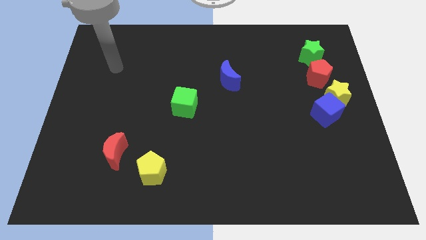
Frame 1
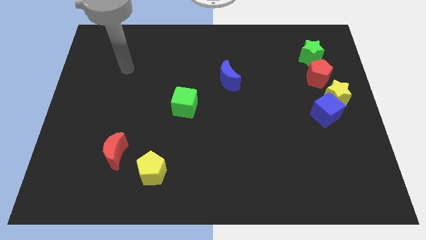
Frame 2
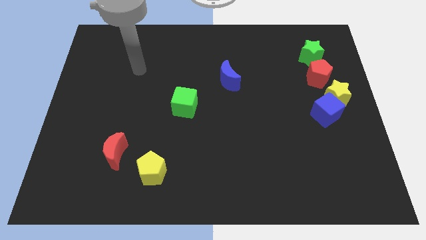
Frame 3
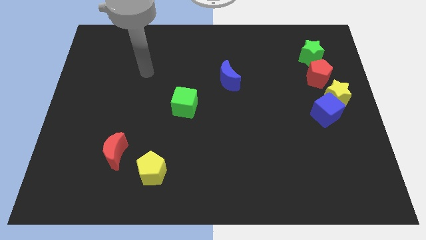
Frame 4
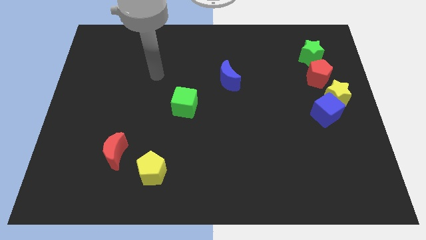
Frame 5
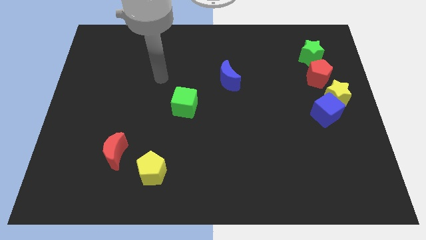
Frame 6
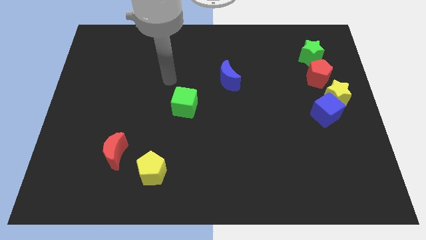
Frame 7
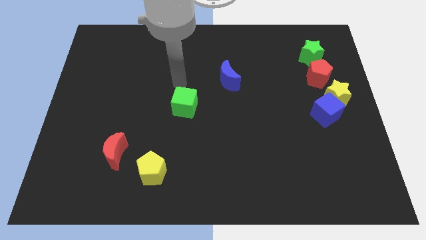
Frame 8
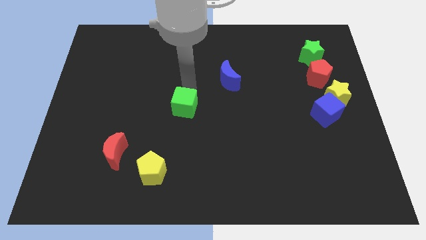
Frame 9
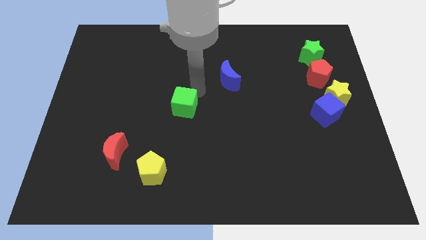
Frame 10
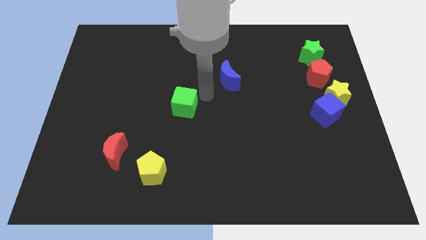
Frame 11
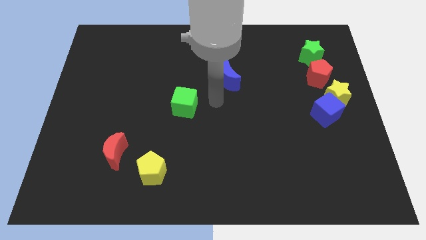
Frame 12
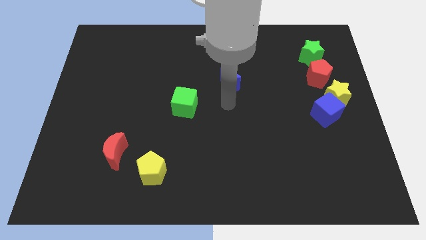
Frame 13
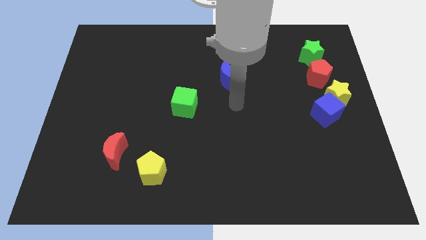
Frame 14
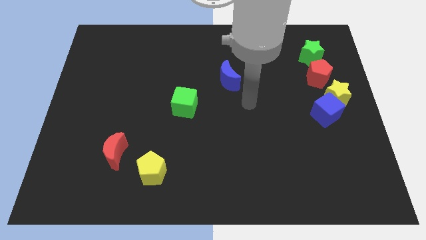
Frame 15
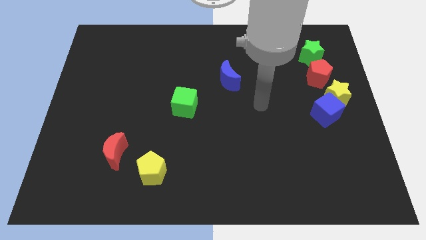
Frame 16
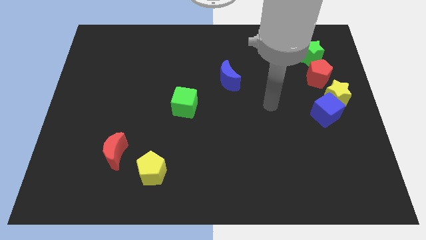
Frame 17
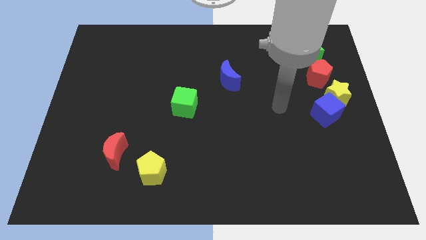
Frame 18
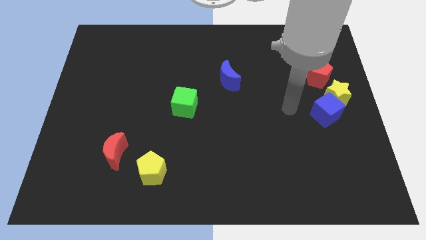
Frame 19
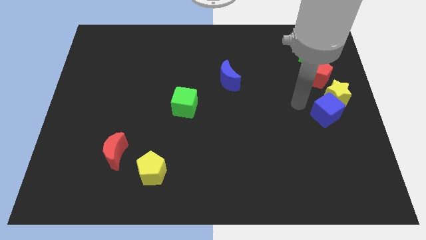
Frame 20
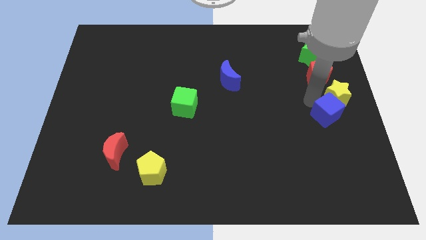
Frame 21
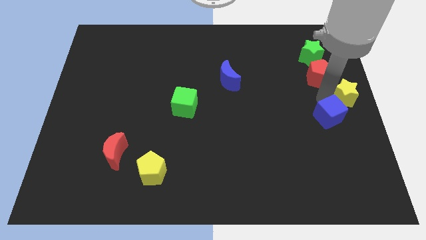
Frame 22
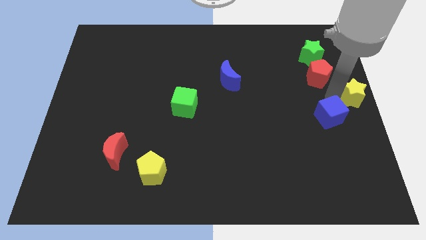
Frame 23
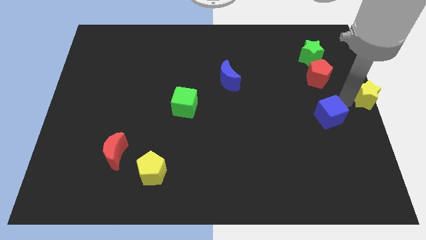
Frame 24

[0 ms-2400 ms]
move the blue cube away from the yellow star

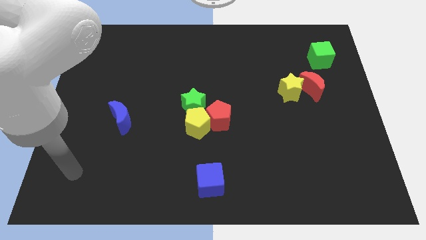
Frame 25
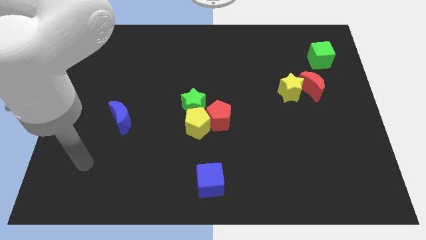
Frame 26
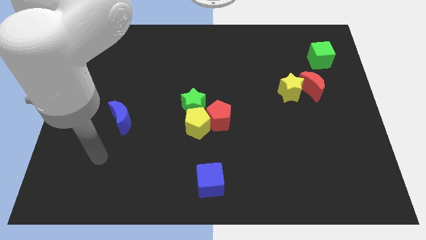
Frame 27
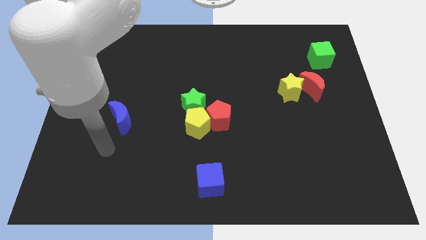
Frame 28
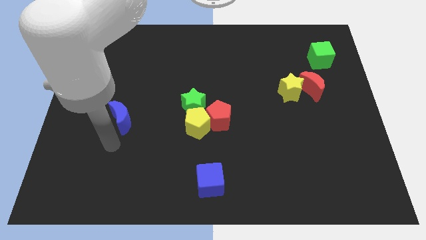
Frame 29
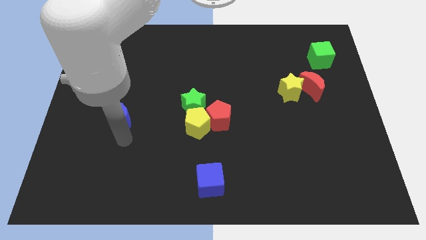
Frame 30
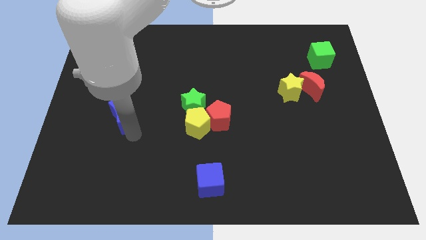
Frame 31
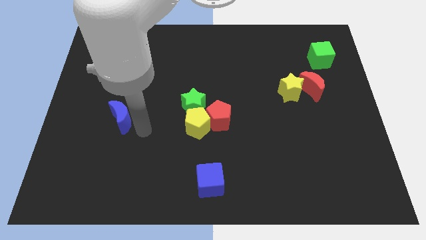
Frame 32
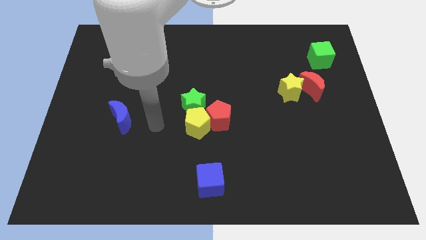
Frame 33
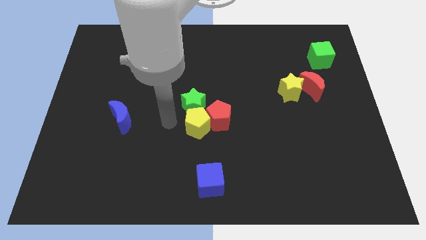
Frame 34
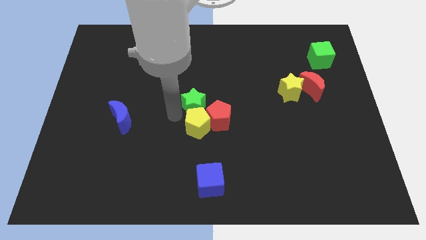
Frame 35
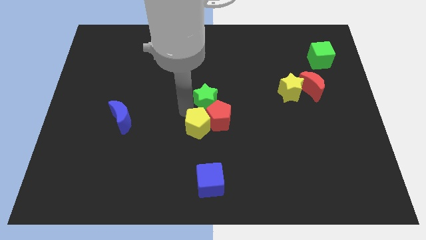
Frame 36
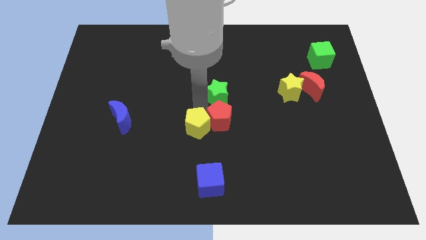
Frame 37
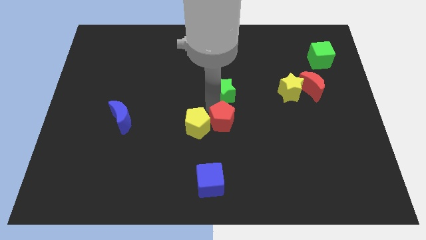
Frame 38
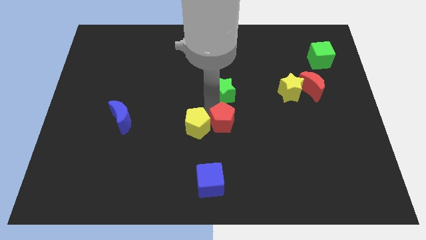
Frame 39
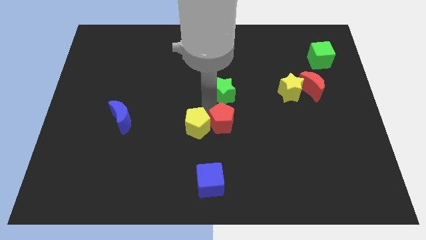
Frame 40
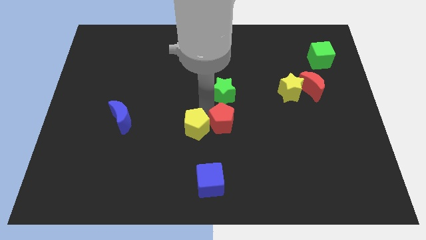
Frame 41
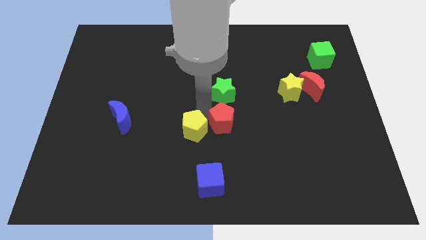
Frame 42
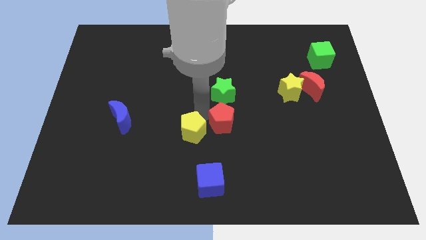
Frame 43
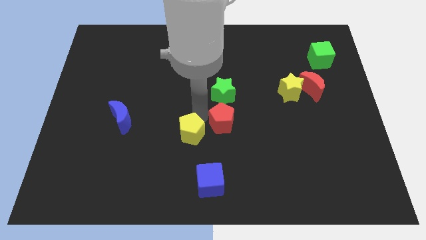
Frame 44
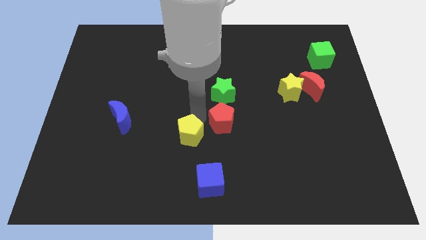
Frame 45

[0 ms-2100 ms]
move the yellow pentagon away from the red pentagon and green star

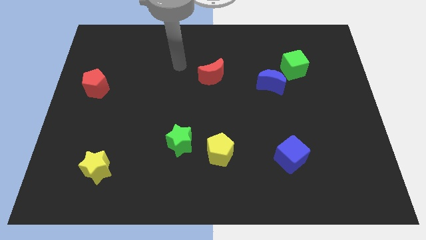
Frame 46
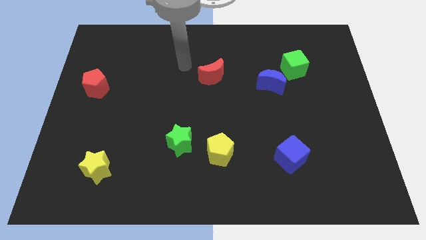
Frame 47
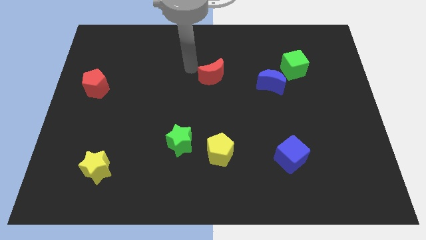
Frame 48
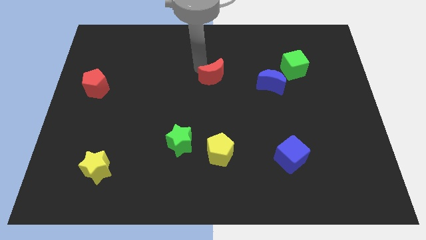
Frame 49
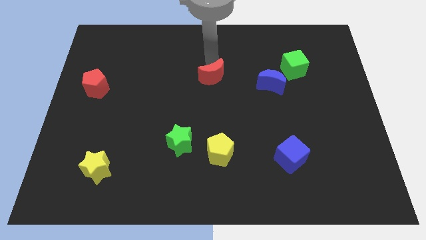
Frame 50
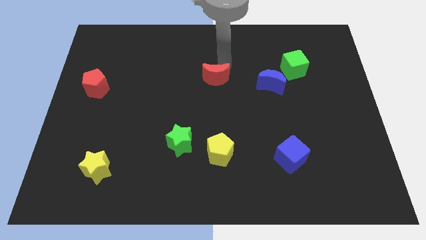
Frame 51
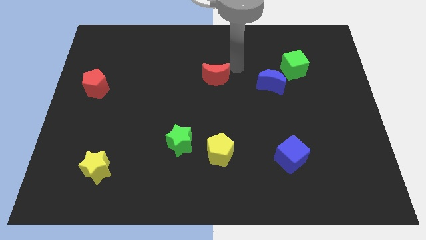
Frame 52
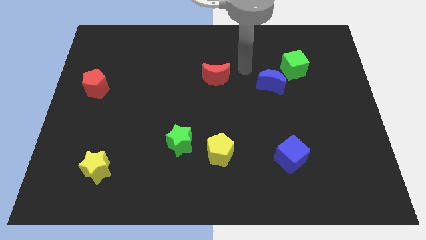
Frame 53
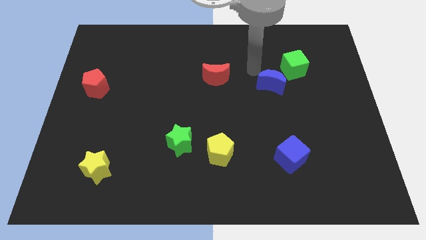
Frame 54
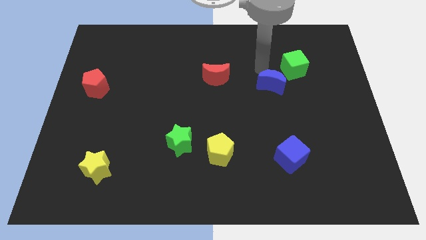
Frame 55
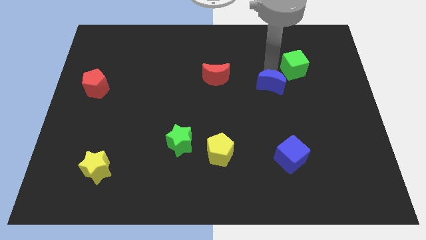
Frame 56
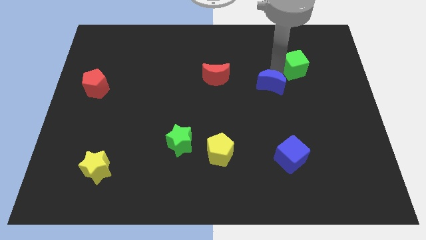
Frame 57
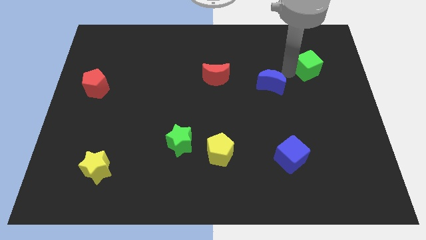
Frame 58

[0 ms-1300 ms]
separate the blue moon from the green cube

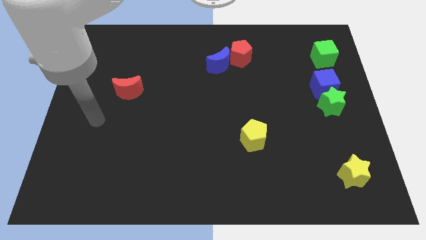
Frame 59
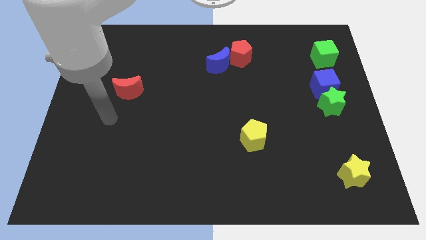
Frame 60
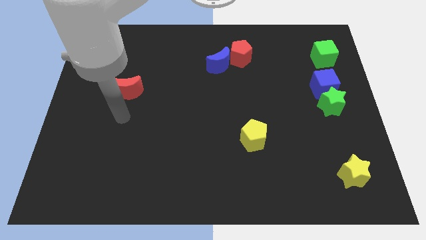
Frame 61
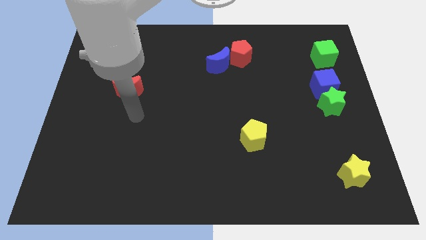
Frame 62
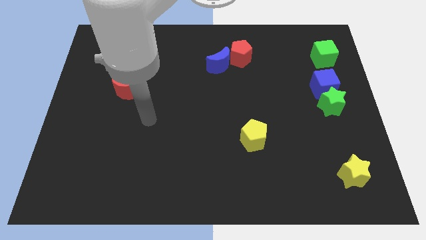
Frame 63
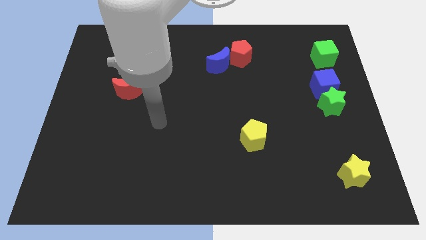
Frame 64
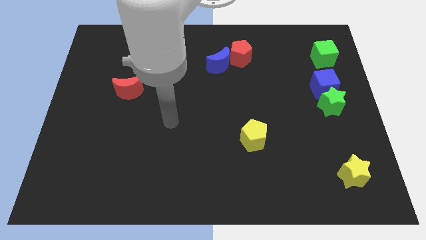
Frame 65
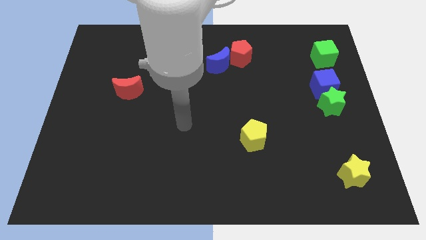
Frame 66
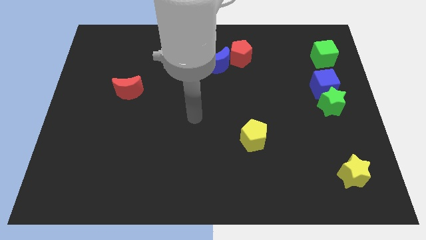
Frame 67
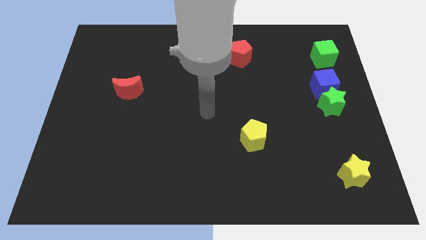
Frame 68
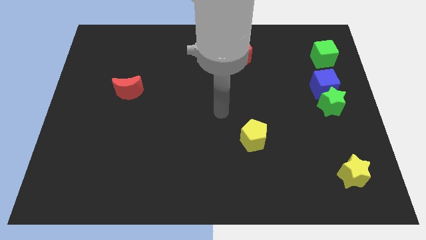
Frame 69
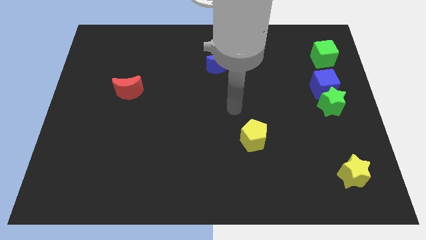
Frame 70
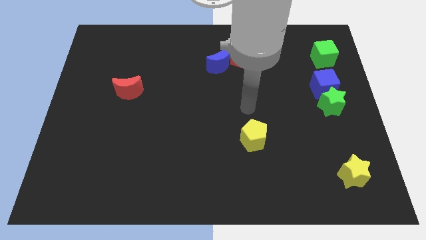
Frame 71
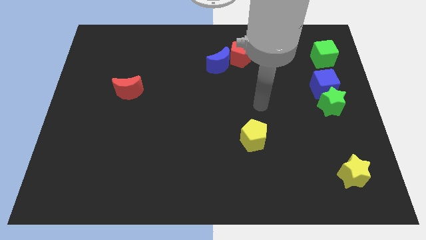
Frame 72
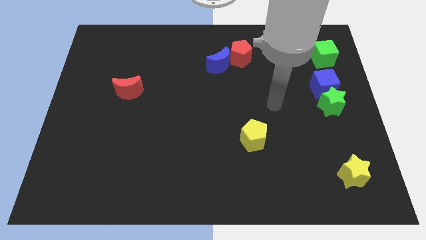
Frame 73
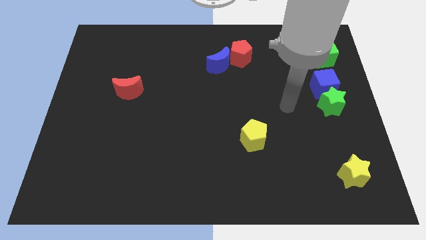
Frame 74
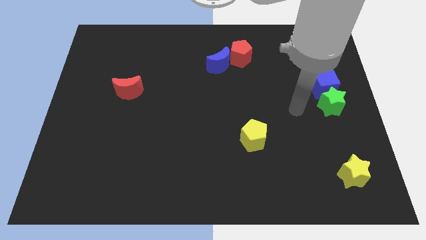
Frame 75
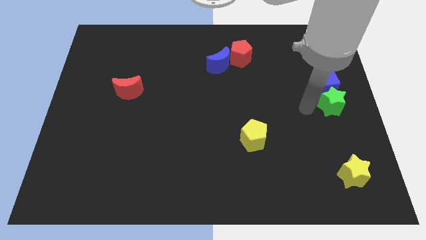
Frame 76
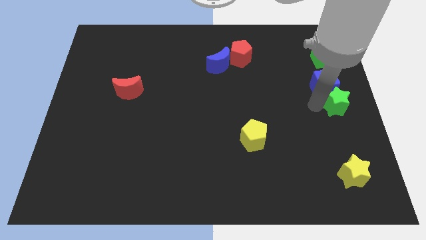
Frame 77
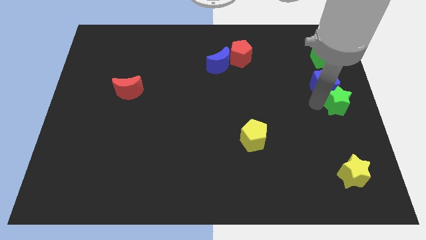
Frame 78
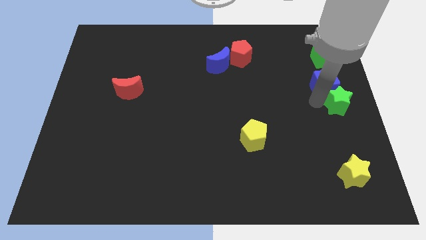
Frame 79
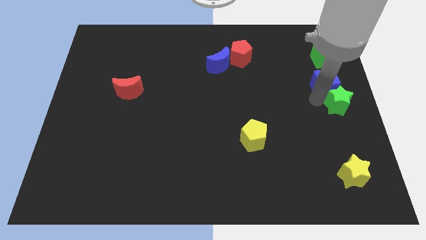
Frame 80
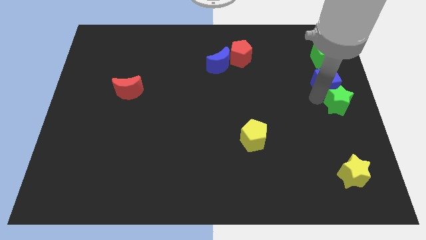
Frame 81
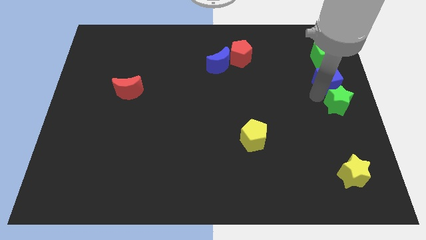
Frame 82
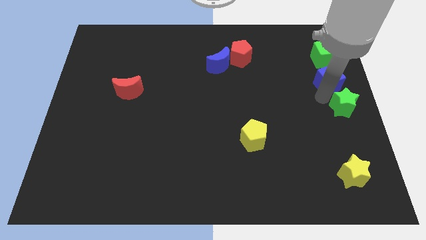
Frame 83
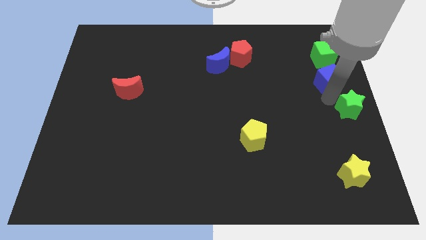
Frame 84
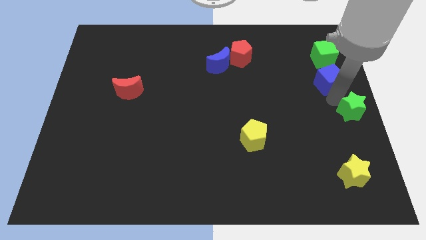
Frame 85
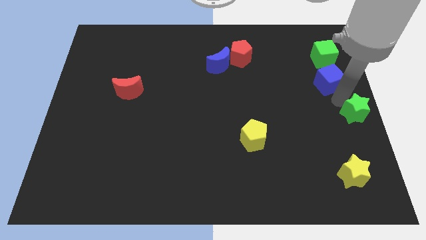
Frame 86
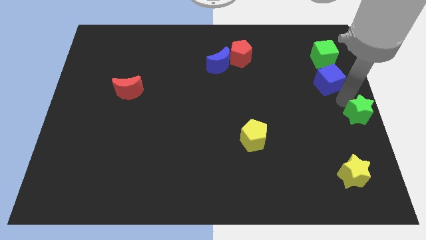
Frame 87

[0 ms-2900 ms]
move the blue cube away from the green star

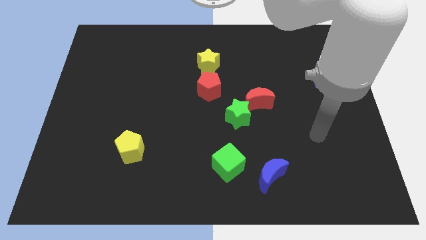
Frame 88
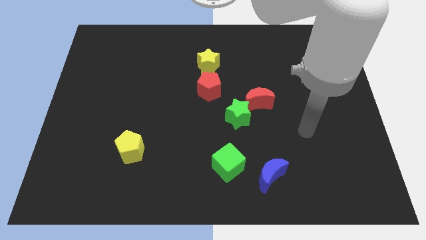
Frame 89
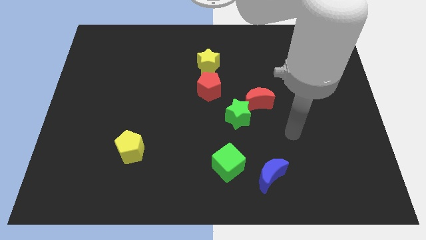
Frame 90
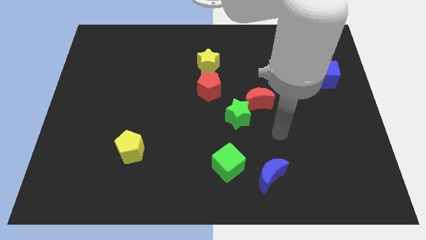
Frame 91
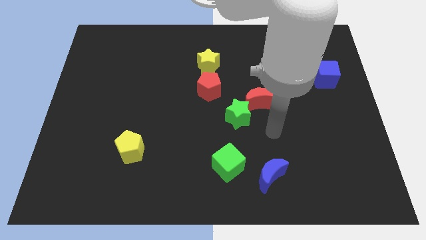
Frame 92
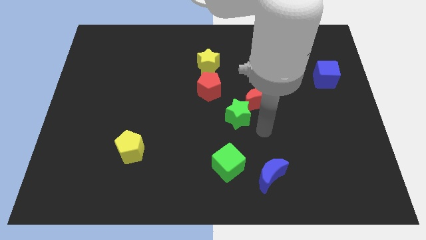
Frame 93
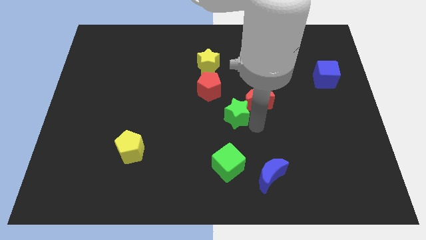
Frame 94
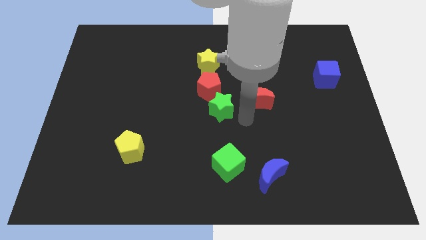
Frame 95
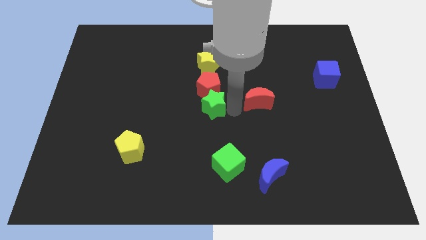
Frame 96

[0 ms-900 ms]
move the red moon away from the green star
